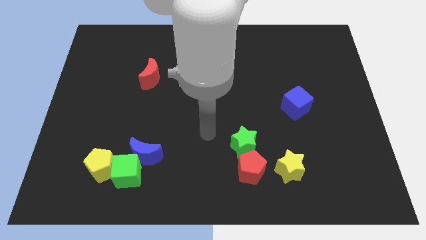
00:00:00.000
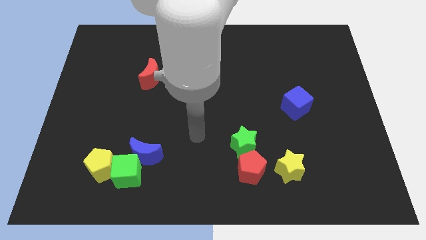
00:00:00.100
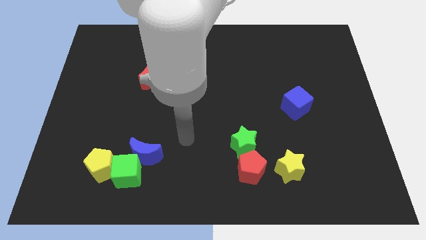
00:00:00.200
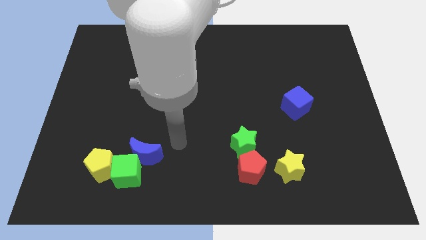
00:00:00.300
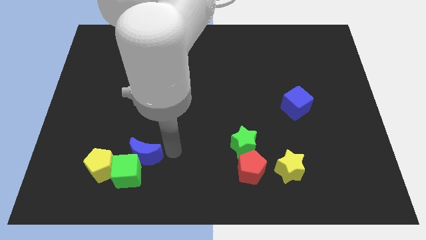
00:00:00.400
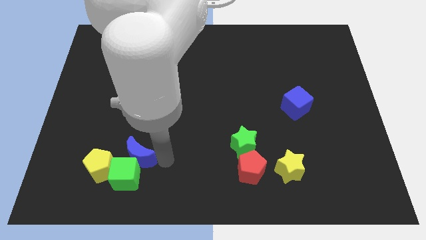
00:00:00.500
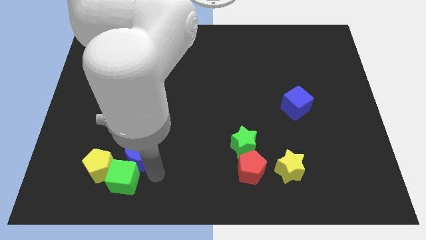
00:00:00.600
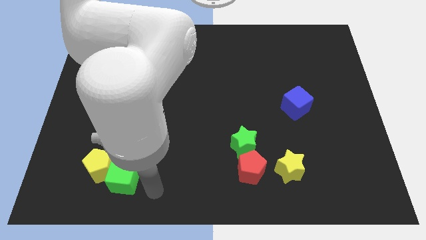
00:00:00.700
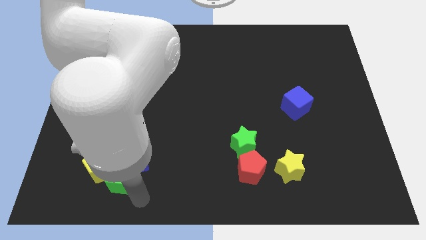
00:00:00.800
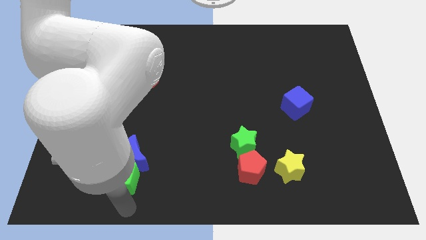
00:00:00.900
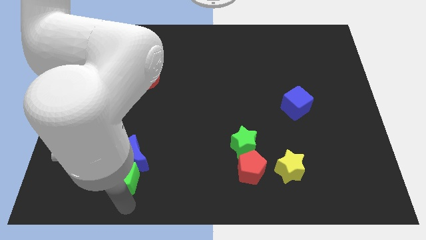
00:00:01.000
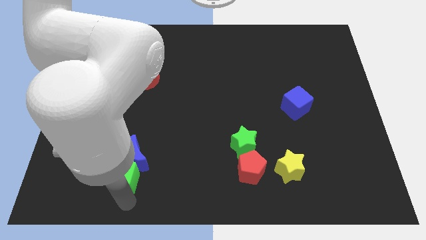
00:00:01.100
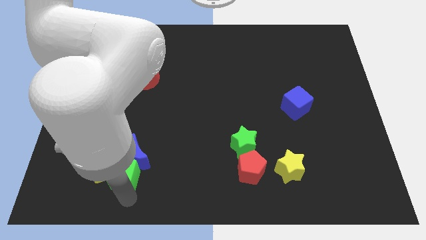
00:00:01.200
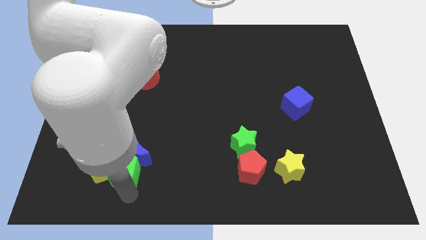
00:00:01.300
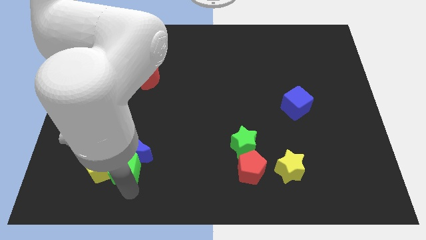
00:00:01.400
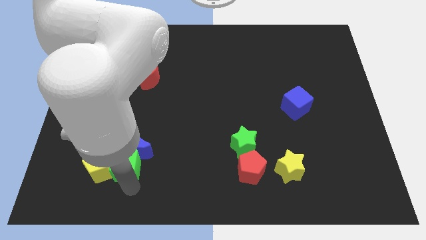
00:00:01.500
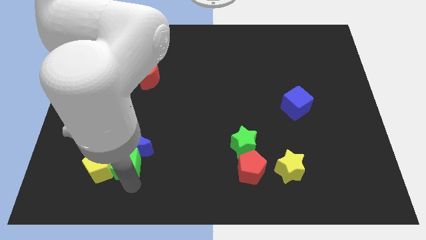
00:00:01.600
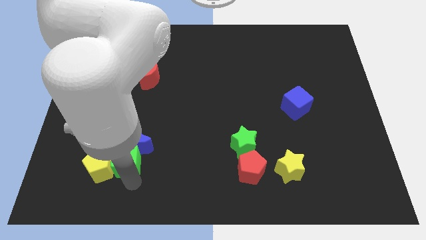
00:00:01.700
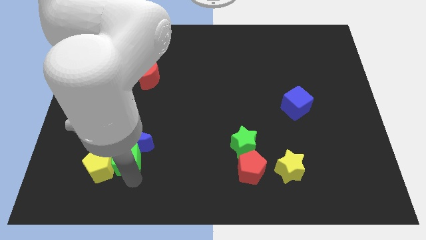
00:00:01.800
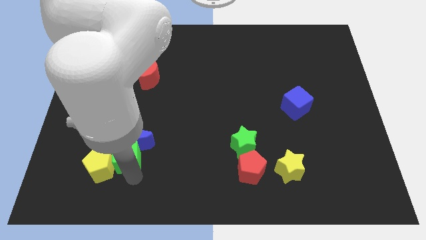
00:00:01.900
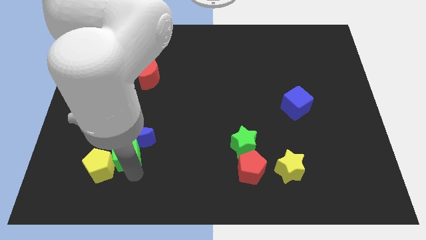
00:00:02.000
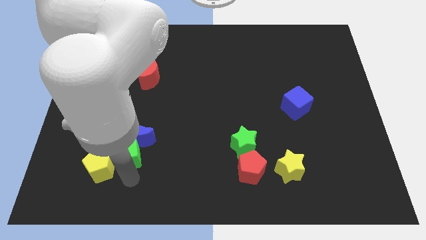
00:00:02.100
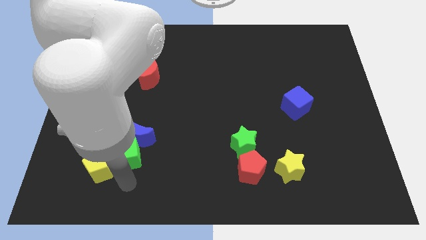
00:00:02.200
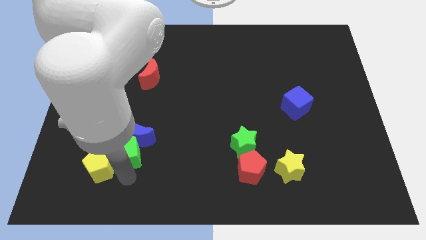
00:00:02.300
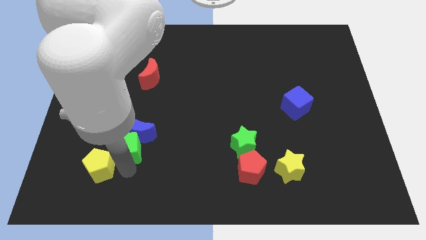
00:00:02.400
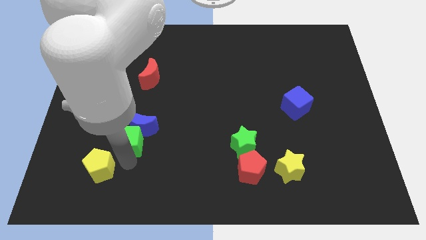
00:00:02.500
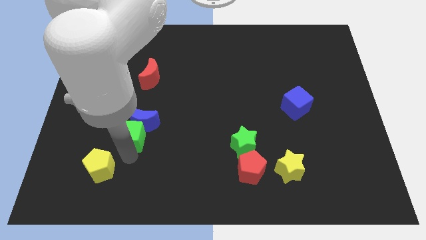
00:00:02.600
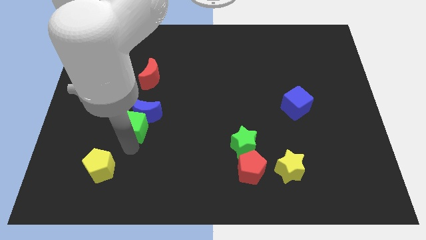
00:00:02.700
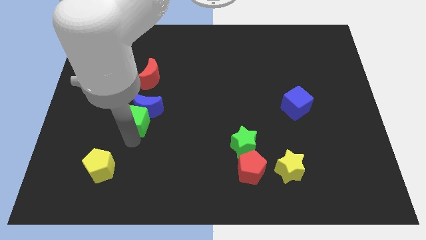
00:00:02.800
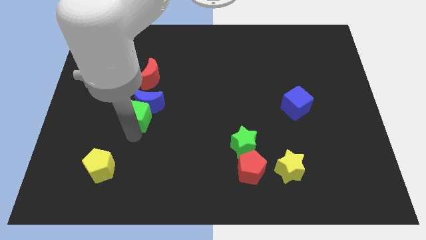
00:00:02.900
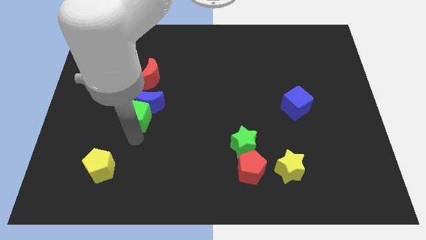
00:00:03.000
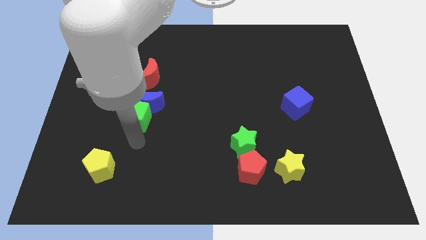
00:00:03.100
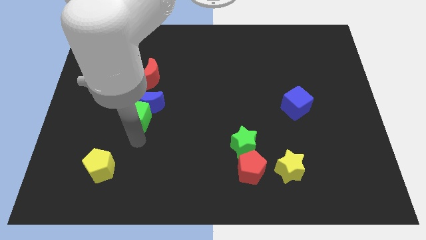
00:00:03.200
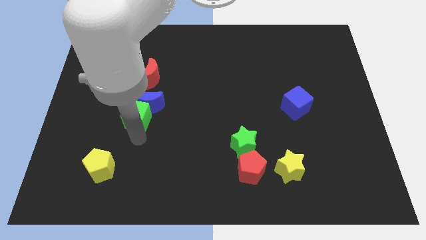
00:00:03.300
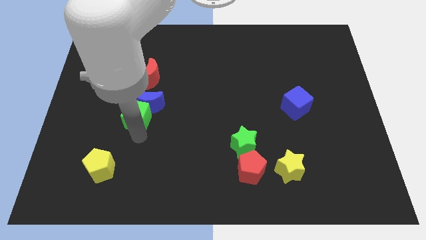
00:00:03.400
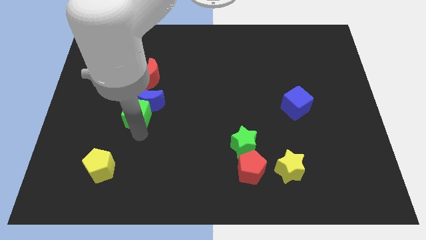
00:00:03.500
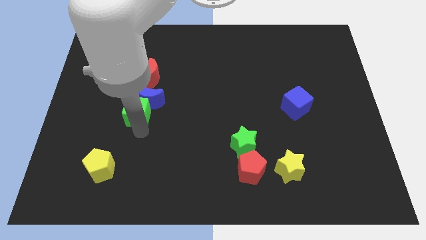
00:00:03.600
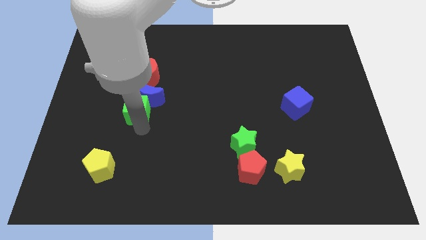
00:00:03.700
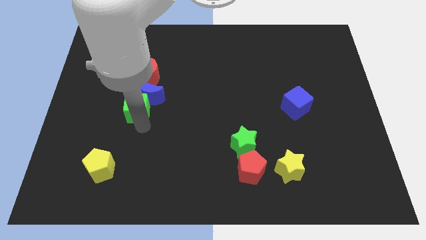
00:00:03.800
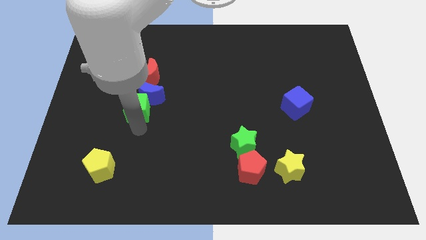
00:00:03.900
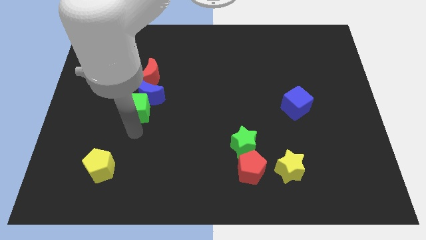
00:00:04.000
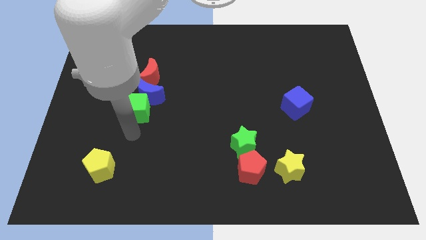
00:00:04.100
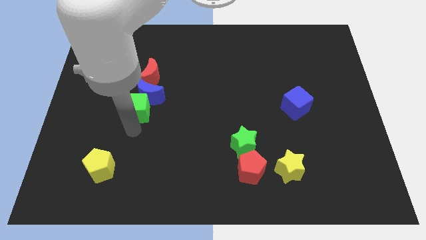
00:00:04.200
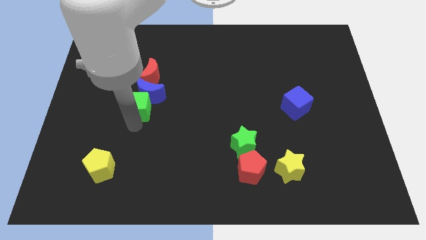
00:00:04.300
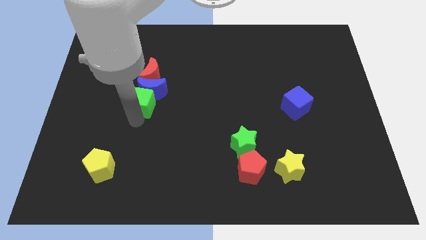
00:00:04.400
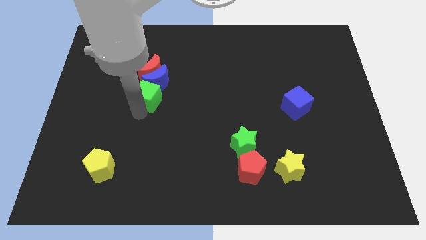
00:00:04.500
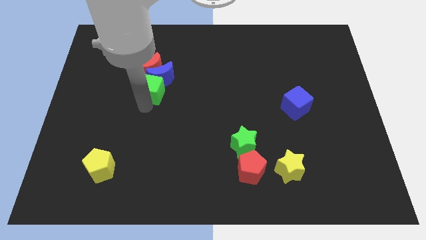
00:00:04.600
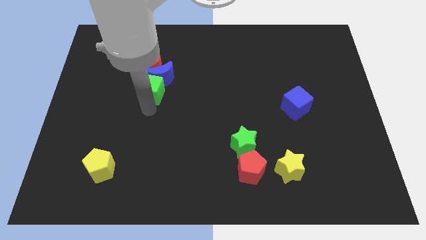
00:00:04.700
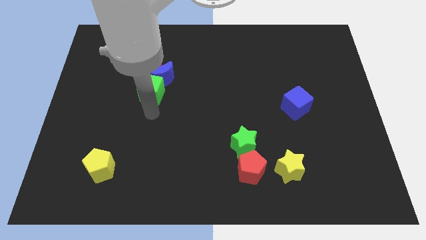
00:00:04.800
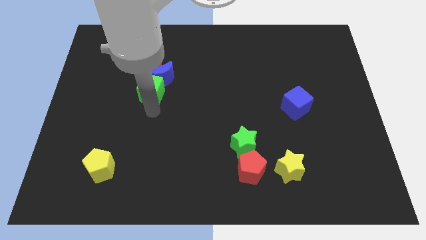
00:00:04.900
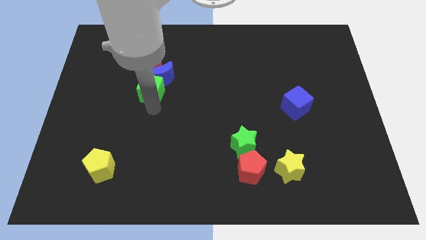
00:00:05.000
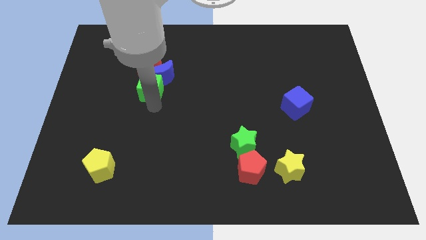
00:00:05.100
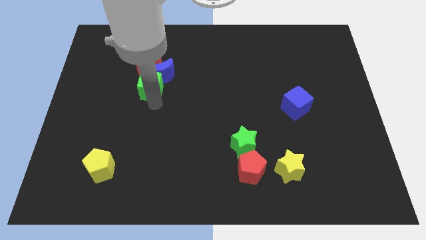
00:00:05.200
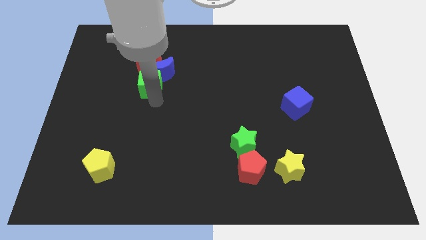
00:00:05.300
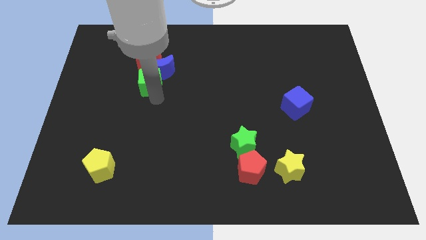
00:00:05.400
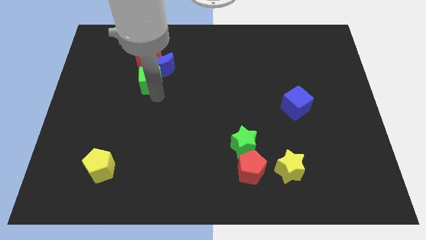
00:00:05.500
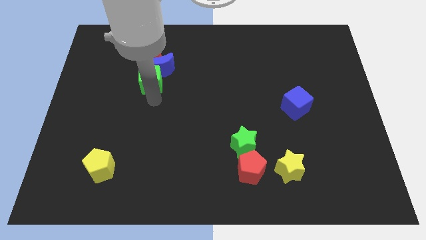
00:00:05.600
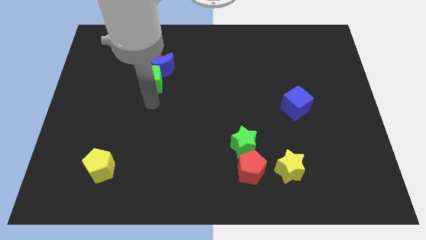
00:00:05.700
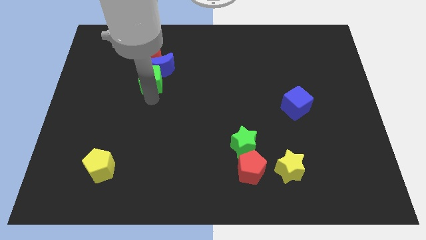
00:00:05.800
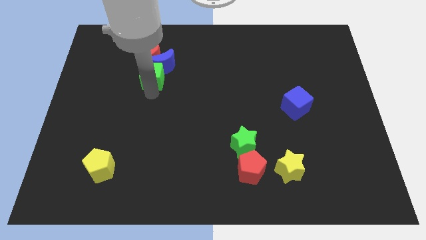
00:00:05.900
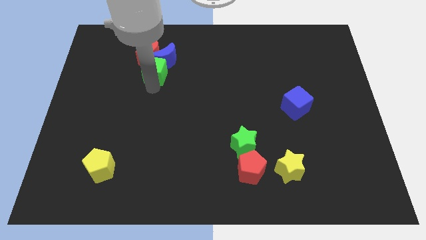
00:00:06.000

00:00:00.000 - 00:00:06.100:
move the green cube to the red moon

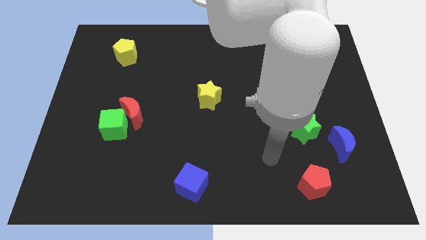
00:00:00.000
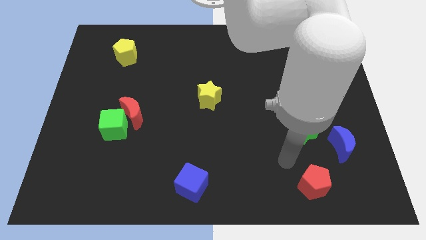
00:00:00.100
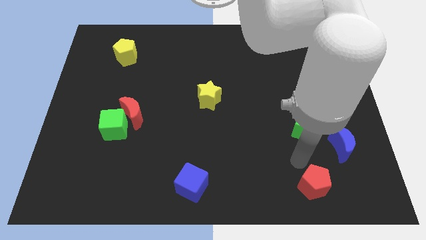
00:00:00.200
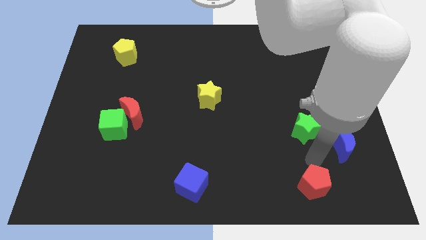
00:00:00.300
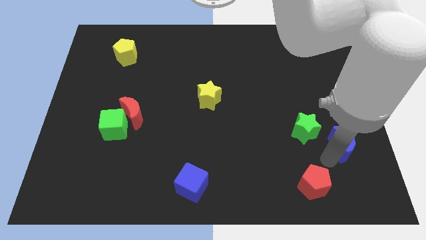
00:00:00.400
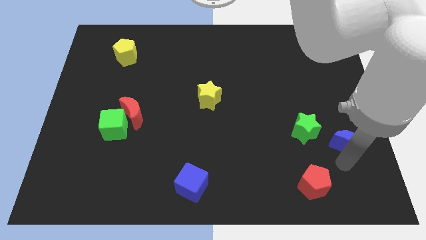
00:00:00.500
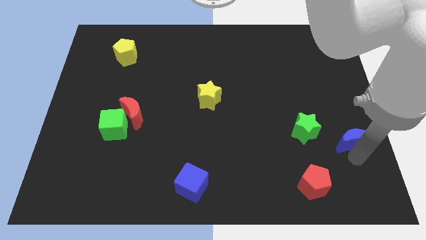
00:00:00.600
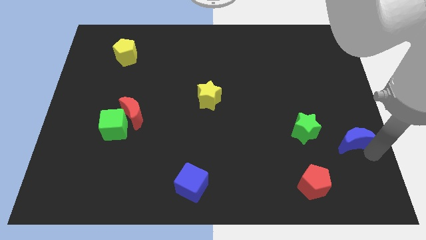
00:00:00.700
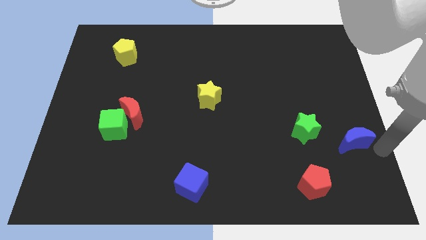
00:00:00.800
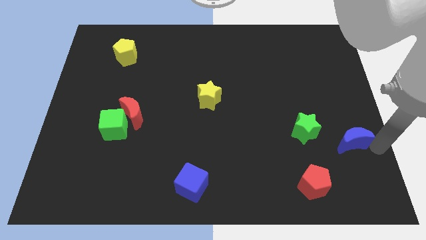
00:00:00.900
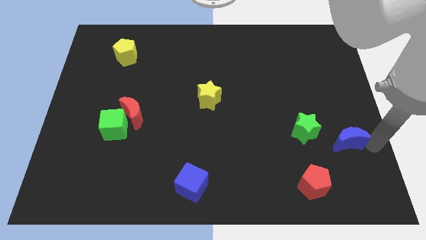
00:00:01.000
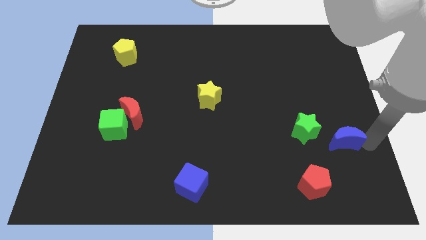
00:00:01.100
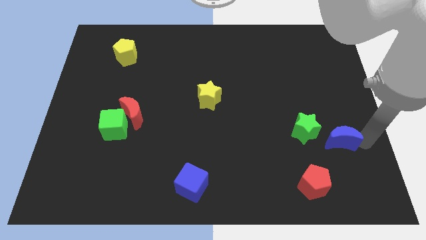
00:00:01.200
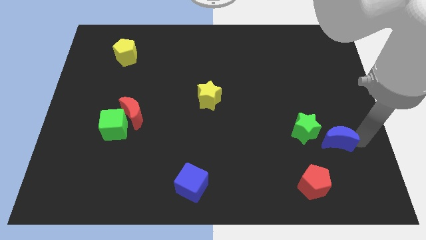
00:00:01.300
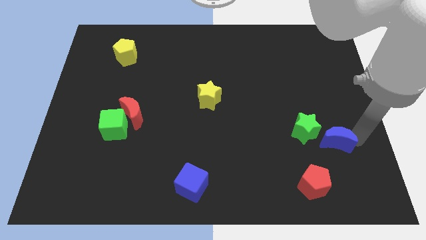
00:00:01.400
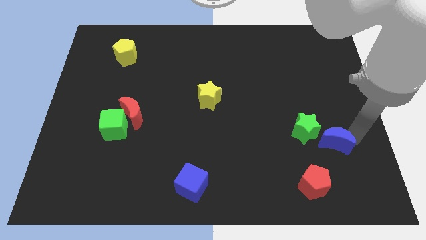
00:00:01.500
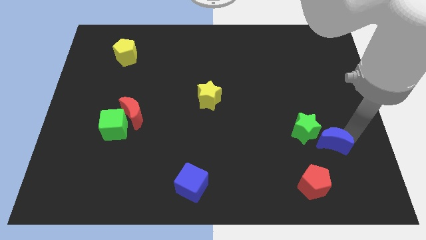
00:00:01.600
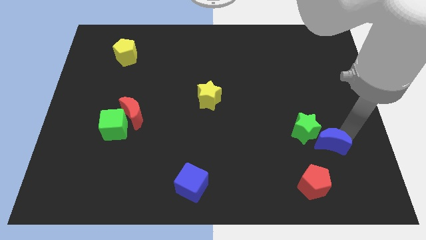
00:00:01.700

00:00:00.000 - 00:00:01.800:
slide the blue moon close to the green star
